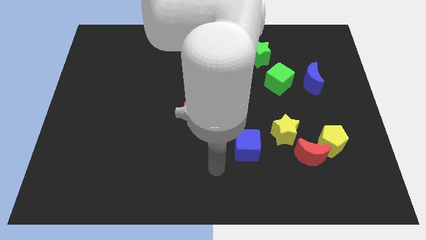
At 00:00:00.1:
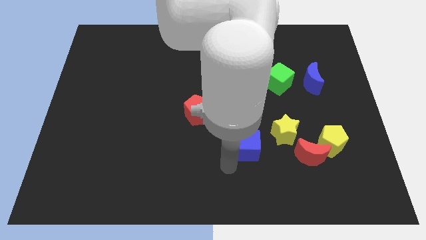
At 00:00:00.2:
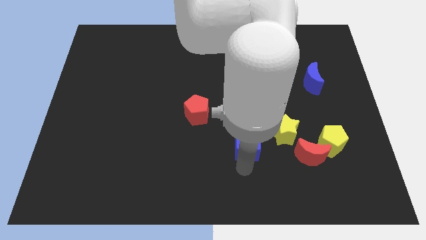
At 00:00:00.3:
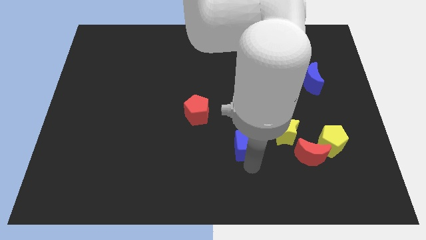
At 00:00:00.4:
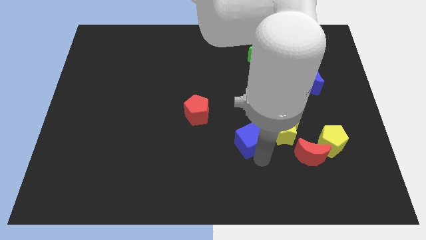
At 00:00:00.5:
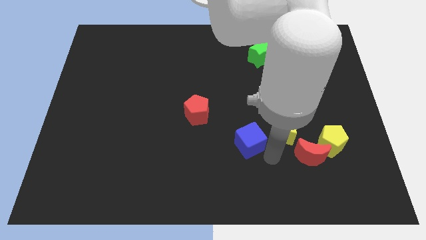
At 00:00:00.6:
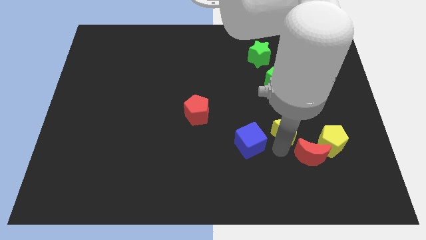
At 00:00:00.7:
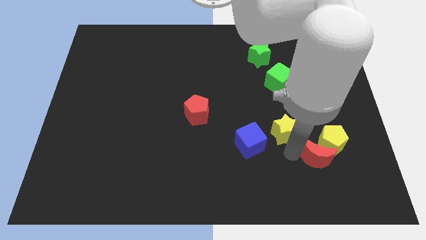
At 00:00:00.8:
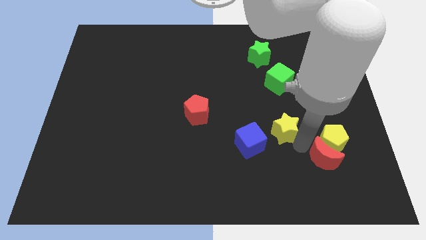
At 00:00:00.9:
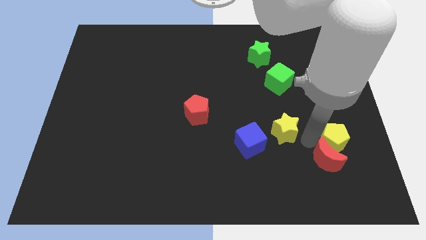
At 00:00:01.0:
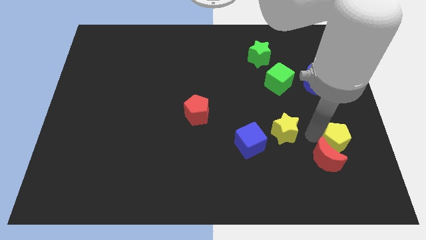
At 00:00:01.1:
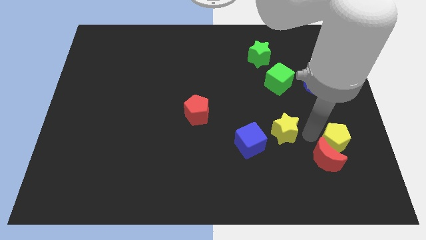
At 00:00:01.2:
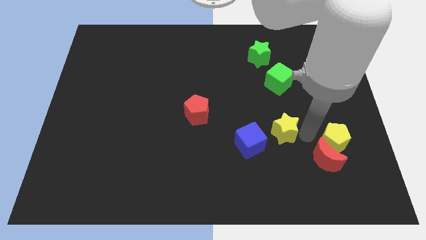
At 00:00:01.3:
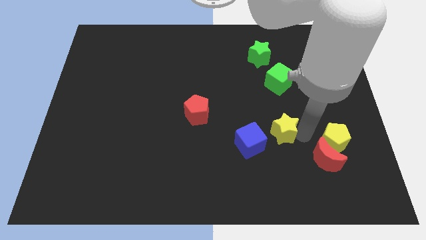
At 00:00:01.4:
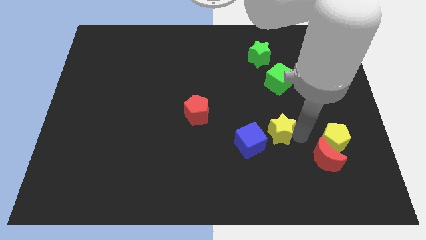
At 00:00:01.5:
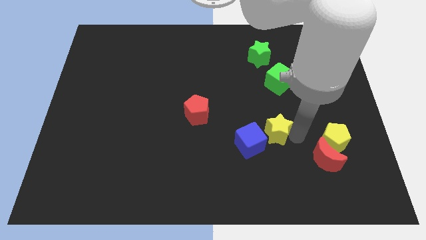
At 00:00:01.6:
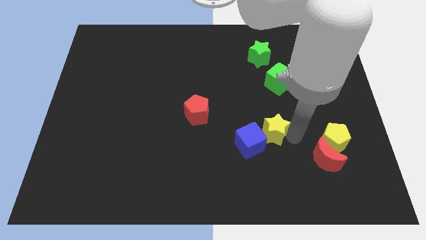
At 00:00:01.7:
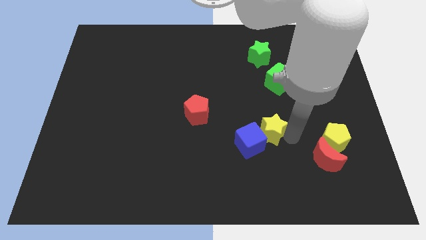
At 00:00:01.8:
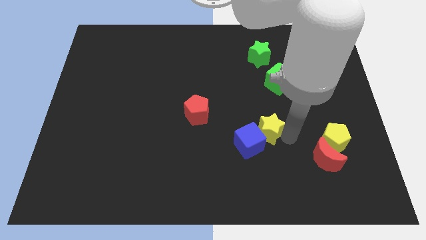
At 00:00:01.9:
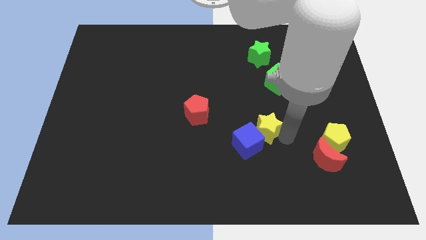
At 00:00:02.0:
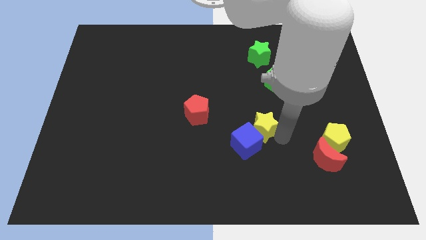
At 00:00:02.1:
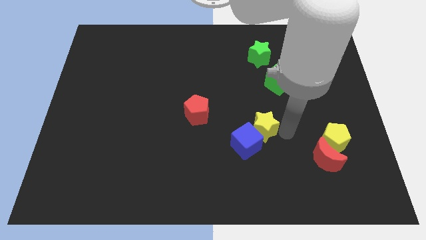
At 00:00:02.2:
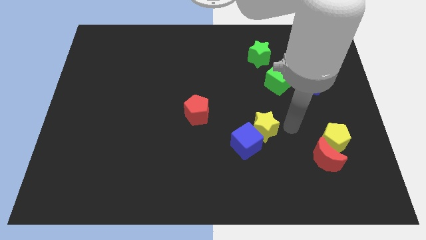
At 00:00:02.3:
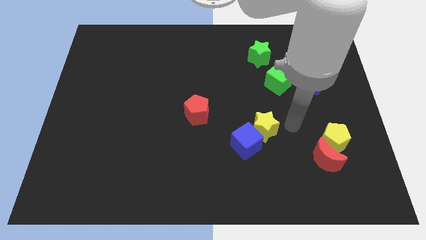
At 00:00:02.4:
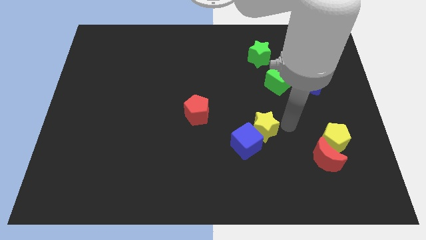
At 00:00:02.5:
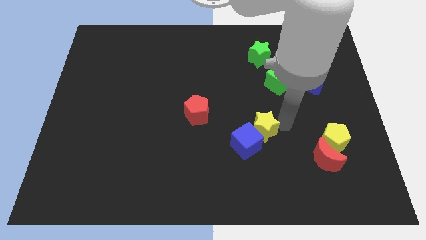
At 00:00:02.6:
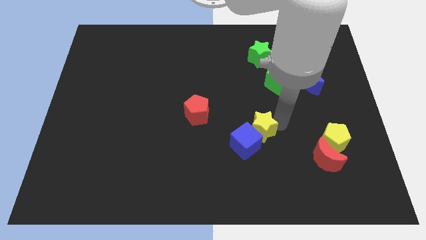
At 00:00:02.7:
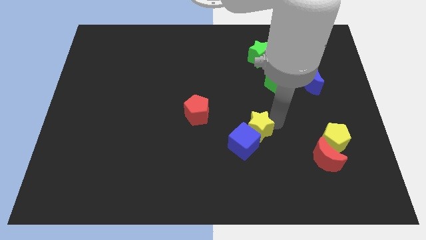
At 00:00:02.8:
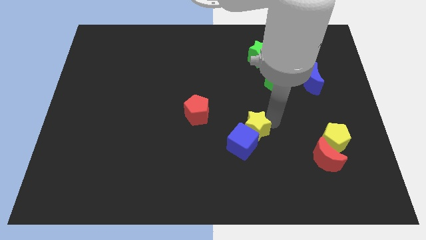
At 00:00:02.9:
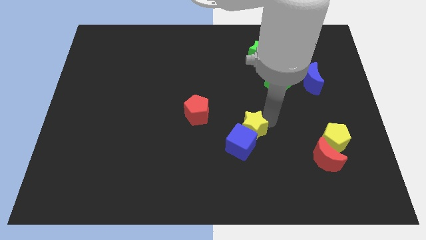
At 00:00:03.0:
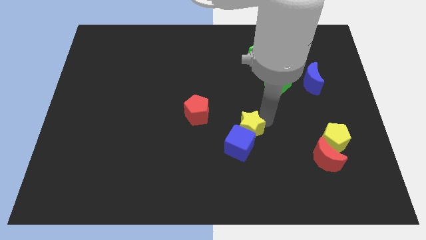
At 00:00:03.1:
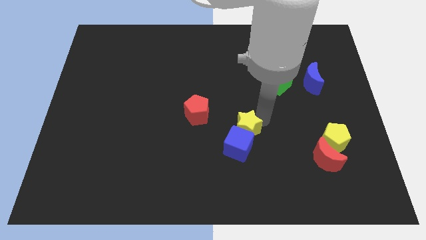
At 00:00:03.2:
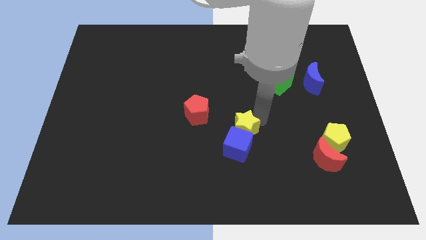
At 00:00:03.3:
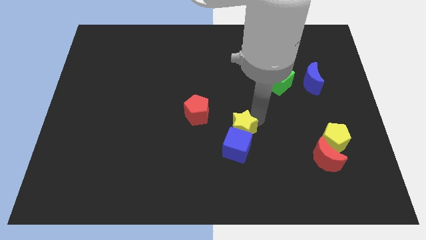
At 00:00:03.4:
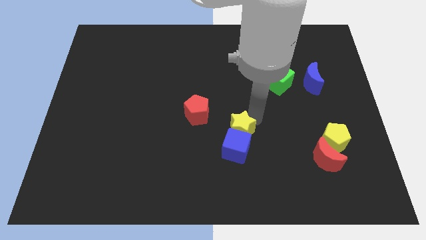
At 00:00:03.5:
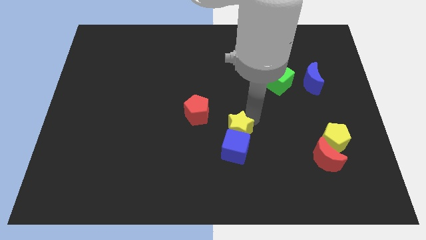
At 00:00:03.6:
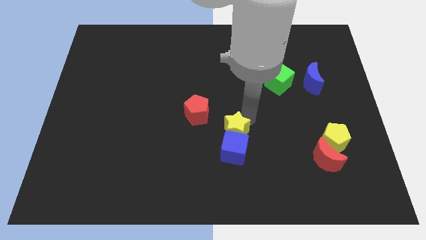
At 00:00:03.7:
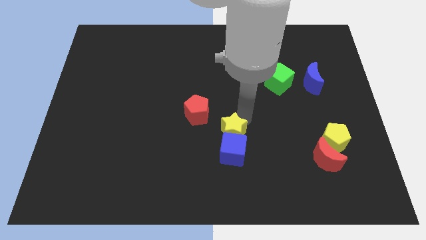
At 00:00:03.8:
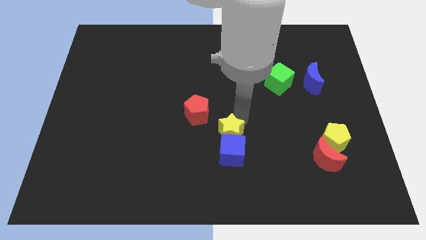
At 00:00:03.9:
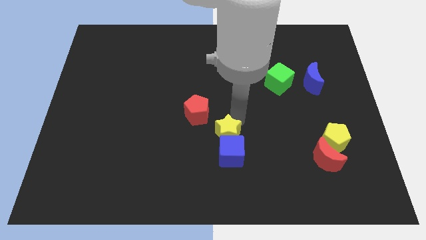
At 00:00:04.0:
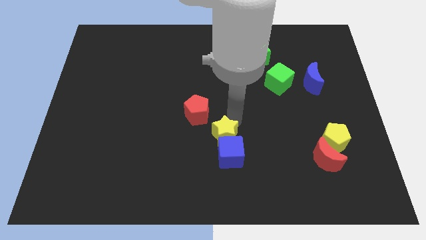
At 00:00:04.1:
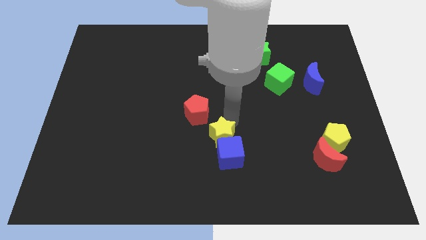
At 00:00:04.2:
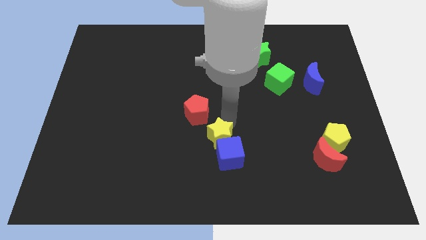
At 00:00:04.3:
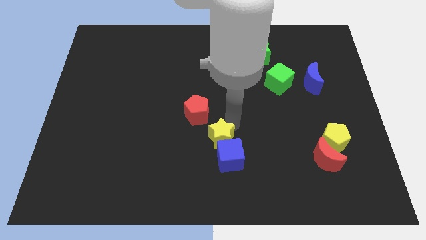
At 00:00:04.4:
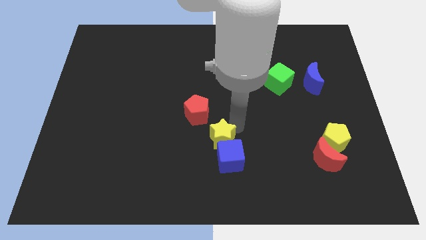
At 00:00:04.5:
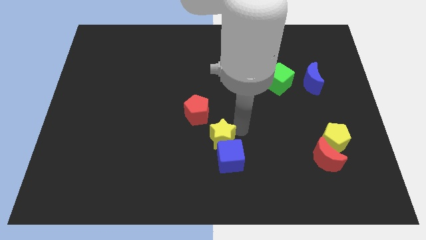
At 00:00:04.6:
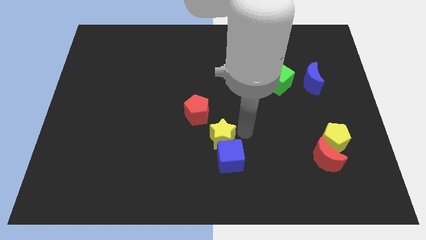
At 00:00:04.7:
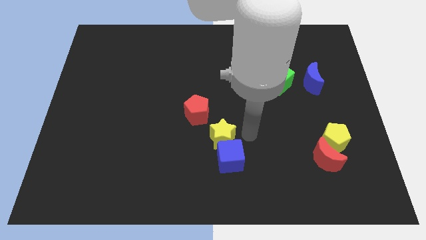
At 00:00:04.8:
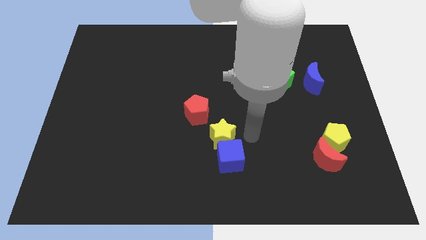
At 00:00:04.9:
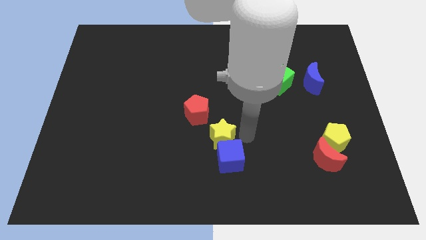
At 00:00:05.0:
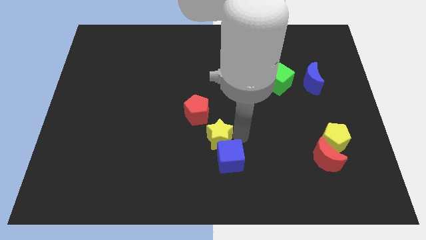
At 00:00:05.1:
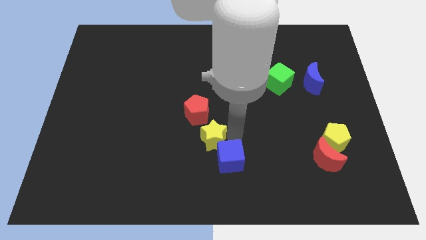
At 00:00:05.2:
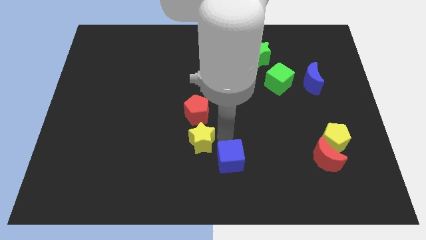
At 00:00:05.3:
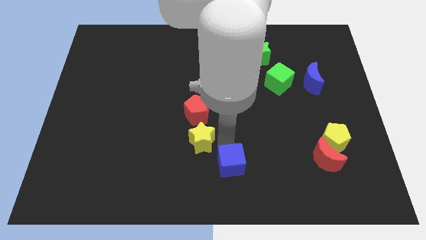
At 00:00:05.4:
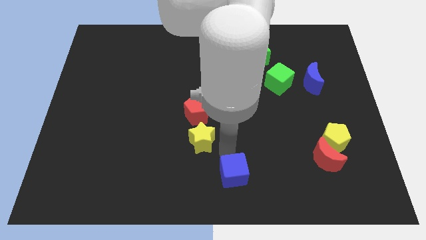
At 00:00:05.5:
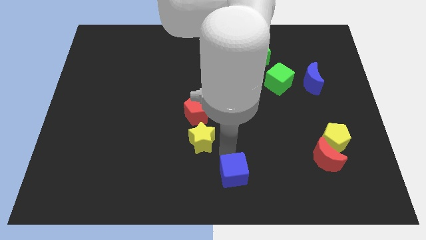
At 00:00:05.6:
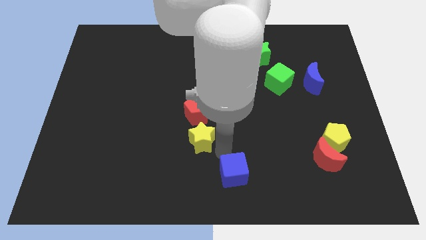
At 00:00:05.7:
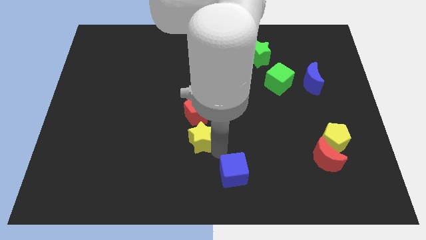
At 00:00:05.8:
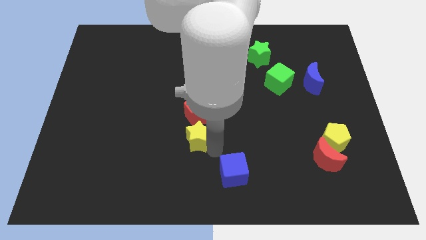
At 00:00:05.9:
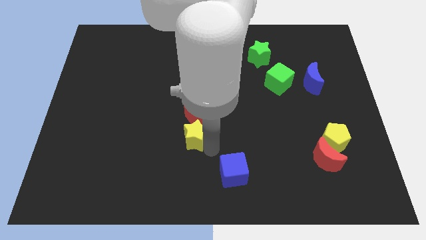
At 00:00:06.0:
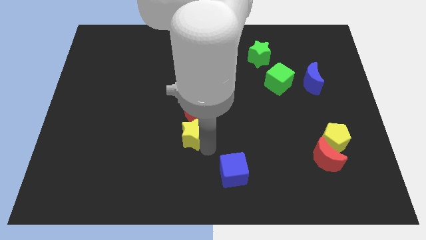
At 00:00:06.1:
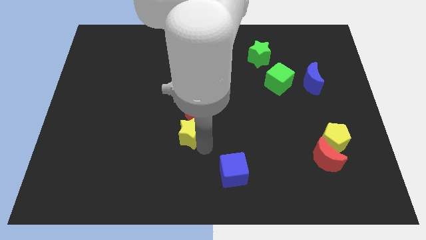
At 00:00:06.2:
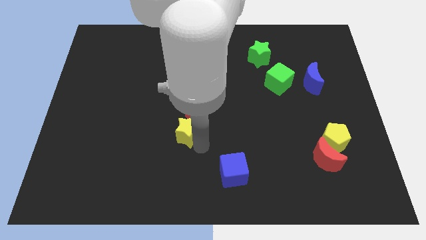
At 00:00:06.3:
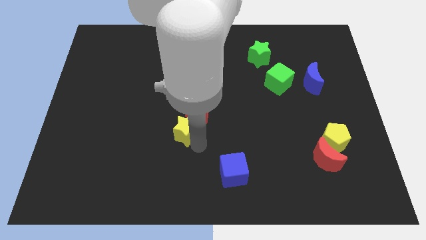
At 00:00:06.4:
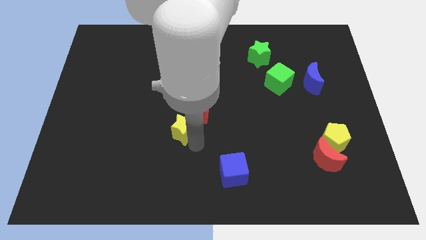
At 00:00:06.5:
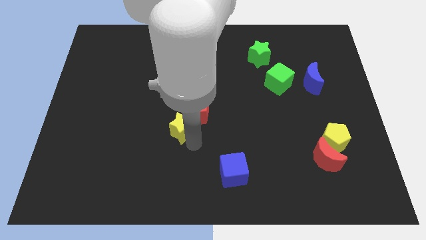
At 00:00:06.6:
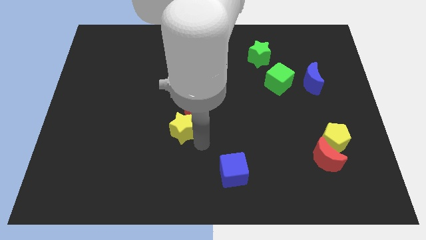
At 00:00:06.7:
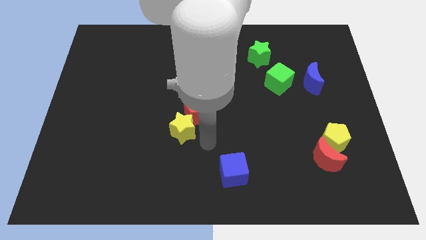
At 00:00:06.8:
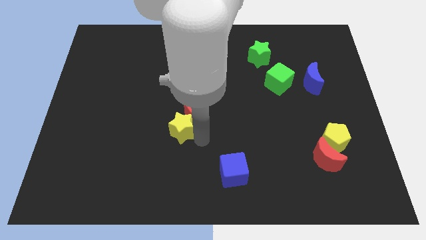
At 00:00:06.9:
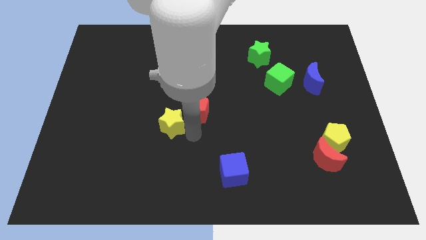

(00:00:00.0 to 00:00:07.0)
move the yellow star to the left of the red pentagon

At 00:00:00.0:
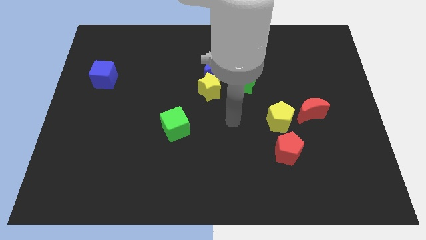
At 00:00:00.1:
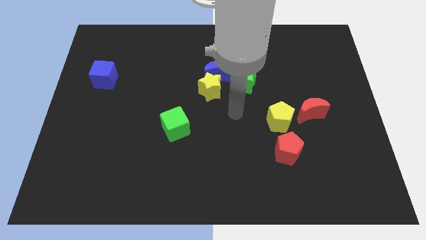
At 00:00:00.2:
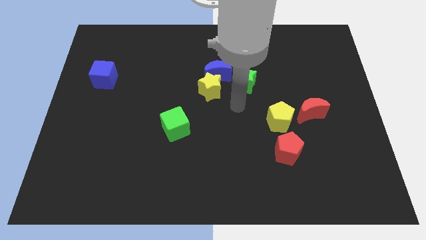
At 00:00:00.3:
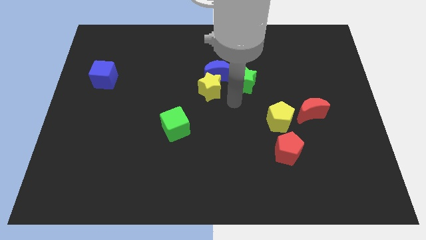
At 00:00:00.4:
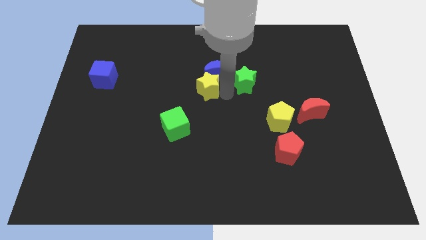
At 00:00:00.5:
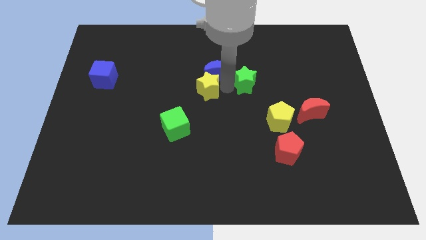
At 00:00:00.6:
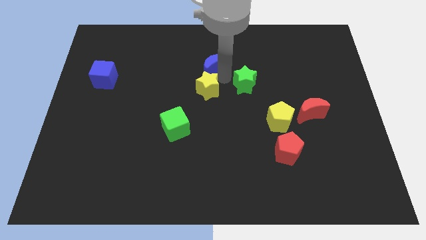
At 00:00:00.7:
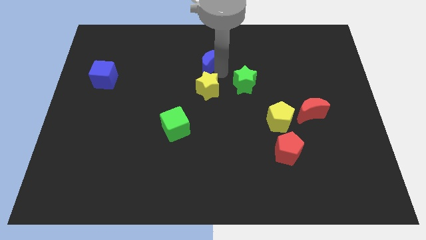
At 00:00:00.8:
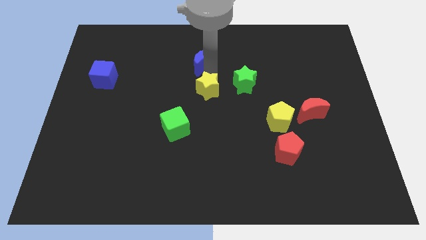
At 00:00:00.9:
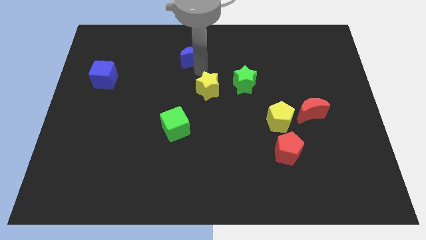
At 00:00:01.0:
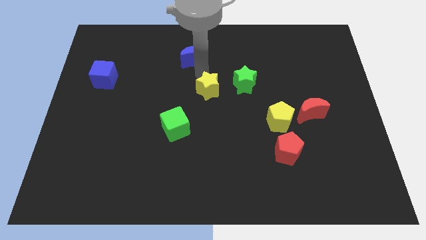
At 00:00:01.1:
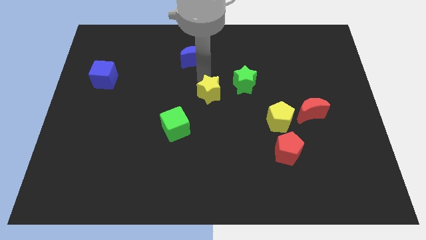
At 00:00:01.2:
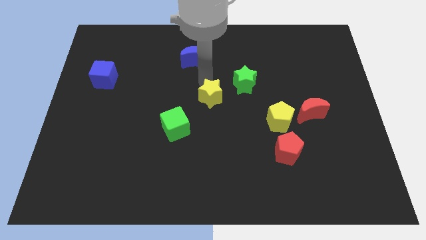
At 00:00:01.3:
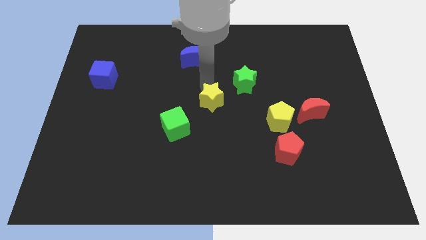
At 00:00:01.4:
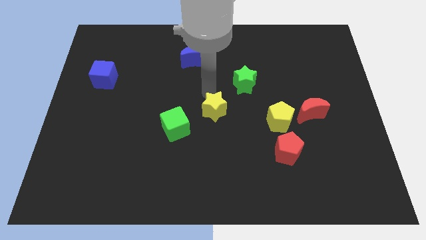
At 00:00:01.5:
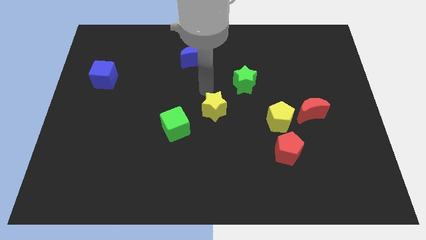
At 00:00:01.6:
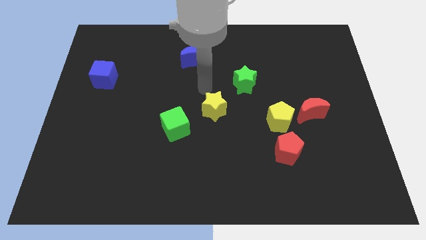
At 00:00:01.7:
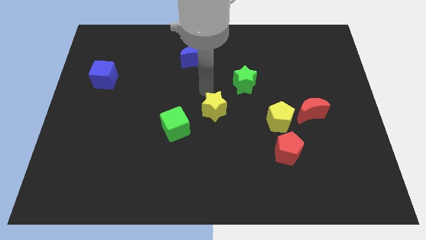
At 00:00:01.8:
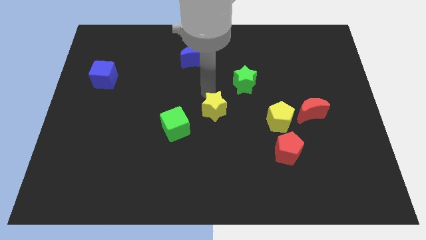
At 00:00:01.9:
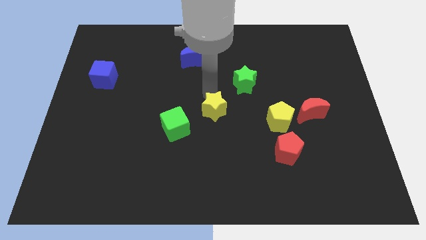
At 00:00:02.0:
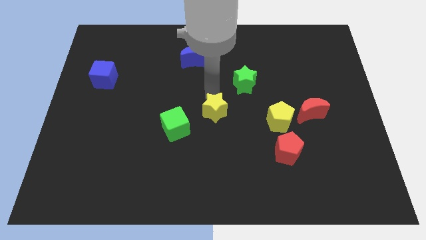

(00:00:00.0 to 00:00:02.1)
move the yellow star just right of the green cube
